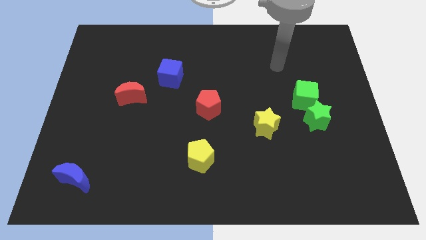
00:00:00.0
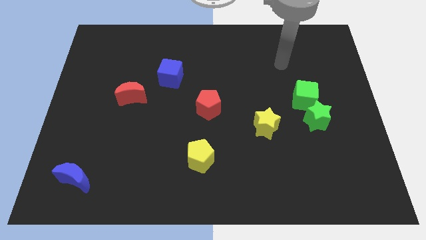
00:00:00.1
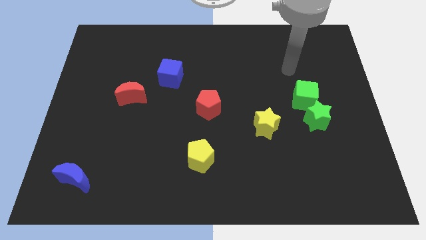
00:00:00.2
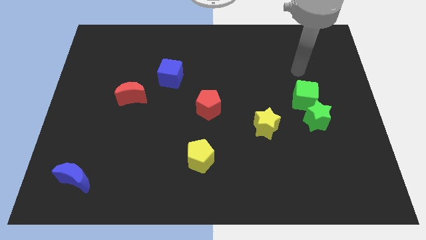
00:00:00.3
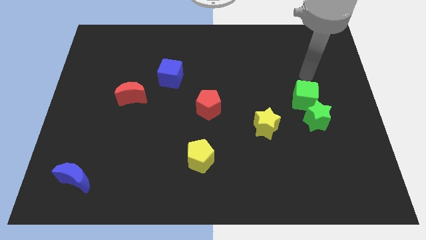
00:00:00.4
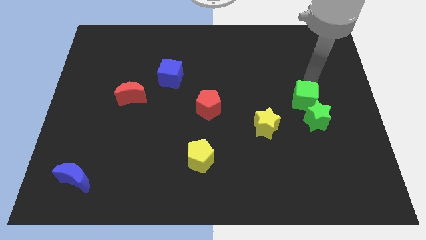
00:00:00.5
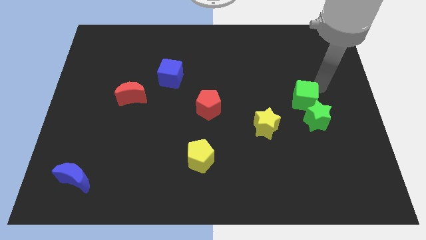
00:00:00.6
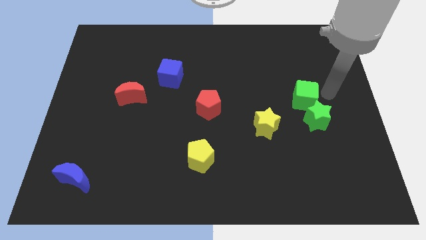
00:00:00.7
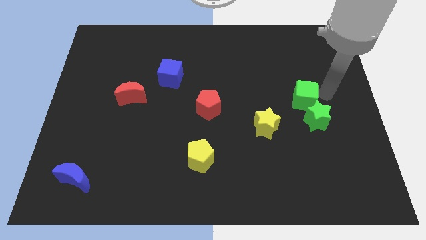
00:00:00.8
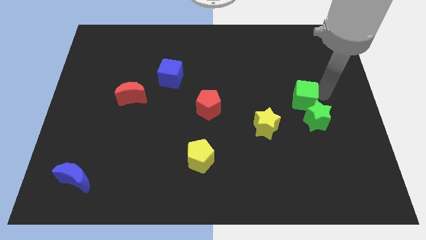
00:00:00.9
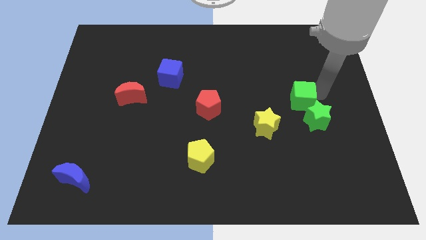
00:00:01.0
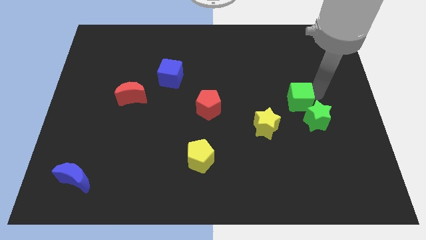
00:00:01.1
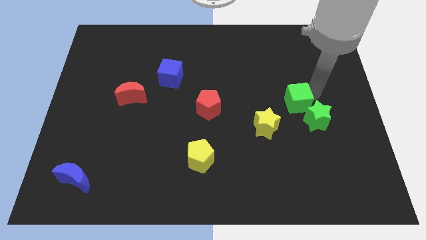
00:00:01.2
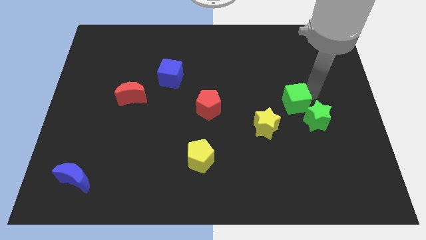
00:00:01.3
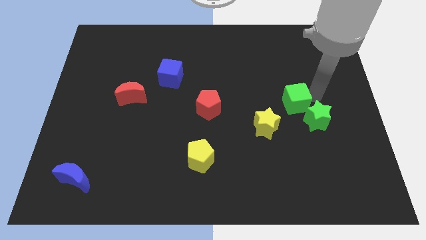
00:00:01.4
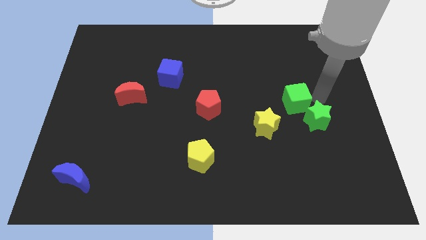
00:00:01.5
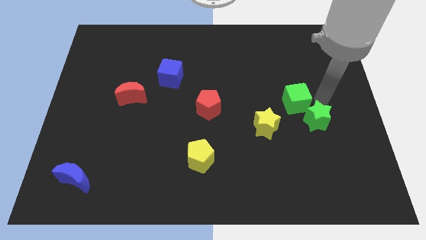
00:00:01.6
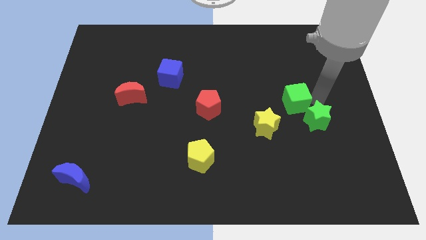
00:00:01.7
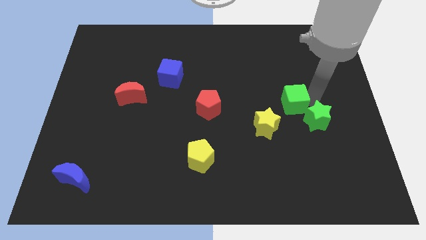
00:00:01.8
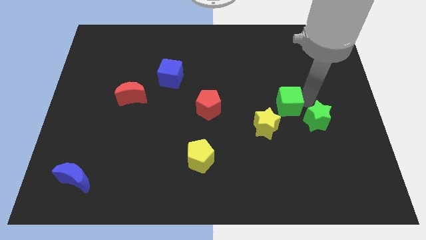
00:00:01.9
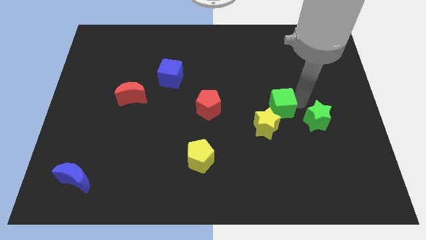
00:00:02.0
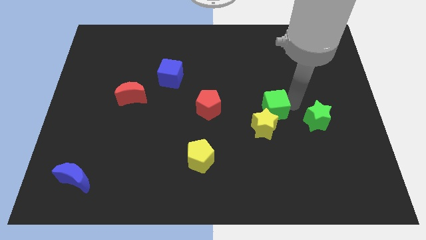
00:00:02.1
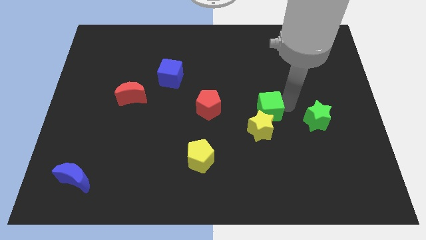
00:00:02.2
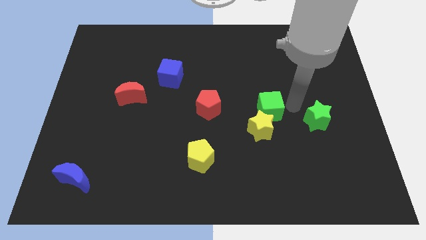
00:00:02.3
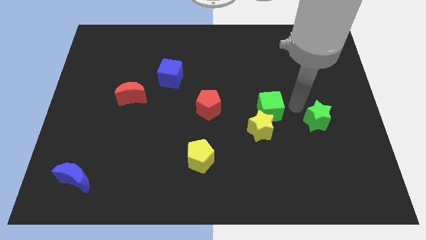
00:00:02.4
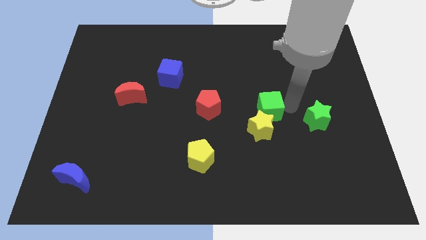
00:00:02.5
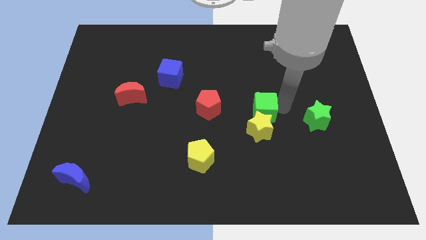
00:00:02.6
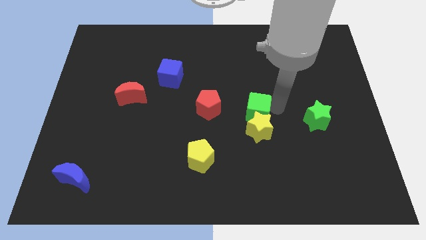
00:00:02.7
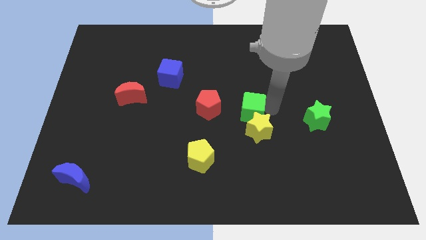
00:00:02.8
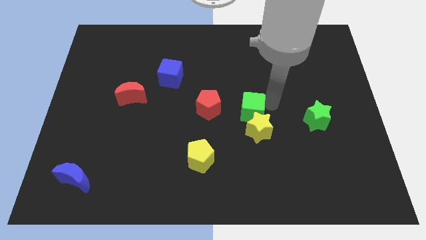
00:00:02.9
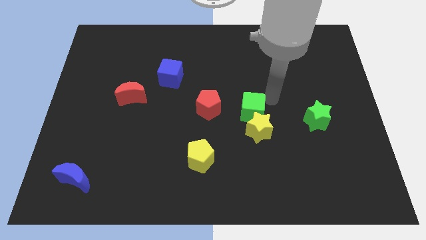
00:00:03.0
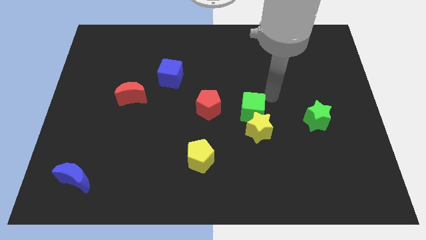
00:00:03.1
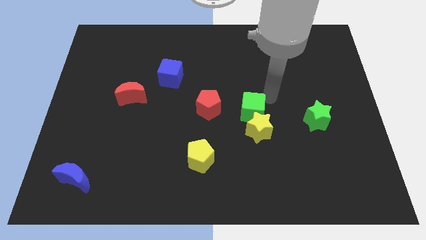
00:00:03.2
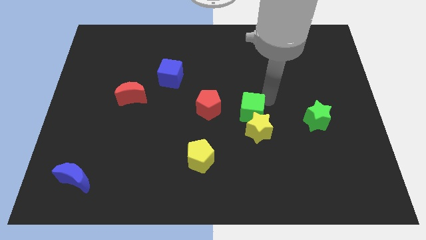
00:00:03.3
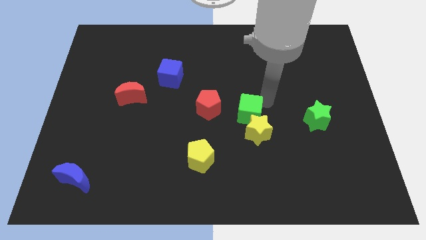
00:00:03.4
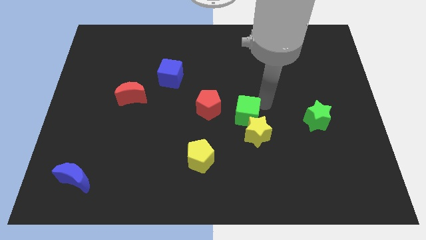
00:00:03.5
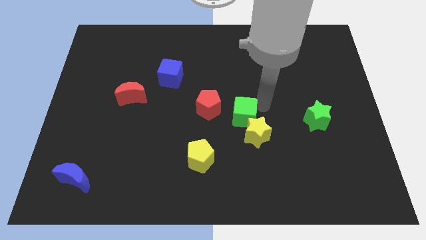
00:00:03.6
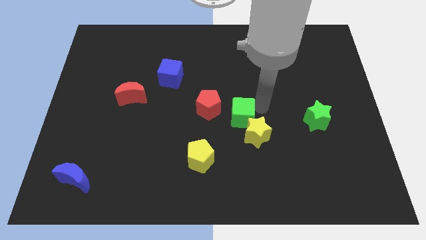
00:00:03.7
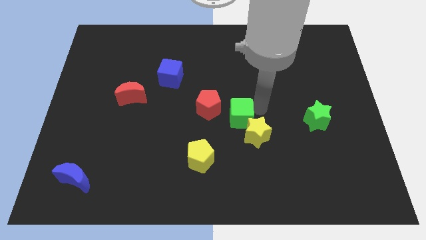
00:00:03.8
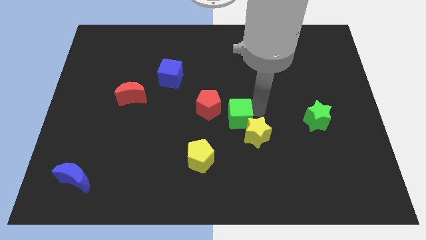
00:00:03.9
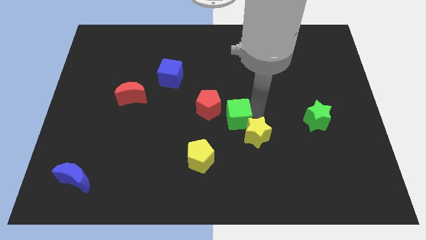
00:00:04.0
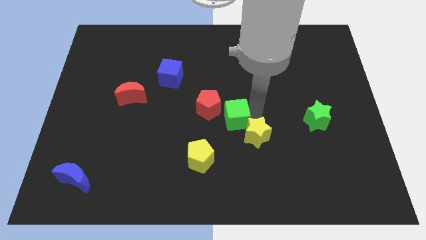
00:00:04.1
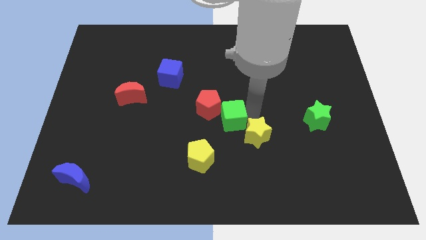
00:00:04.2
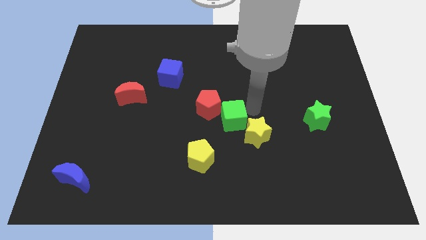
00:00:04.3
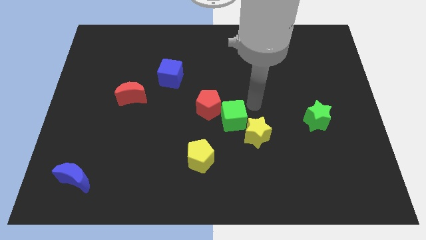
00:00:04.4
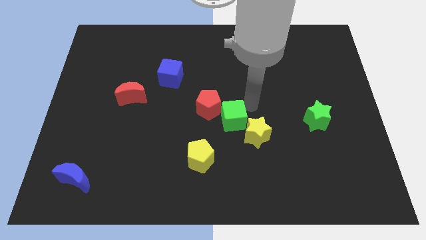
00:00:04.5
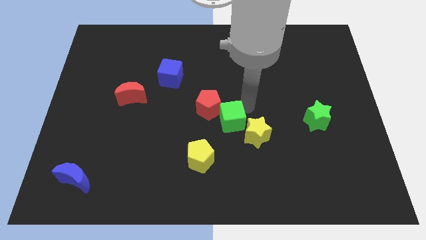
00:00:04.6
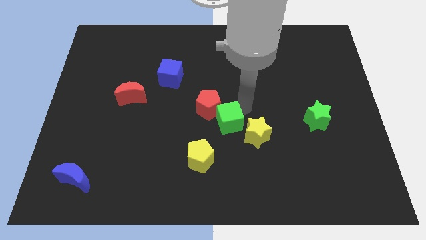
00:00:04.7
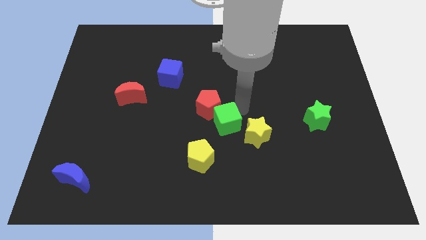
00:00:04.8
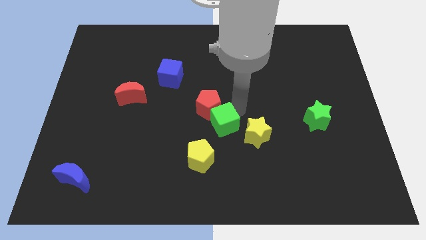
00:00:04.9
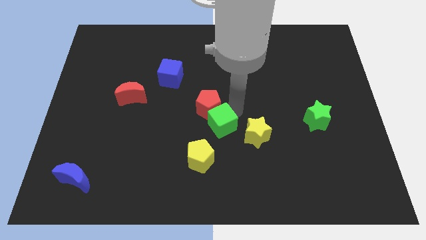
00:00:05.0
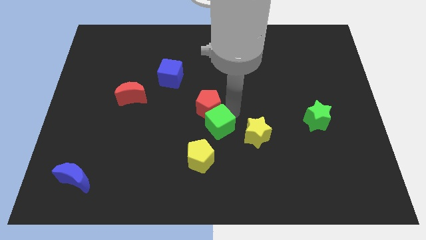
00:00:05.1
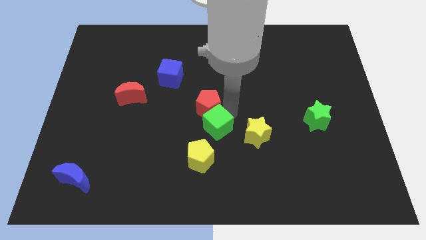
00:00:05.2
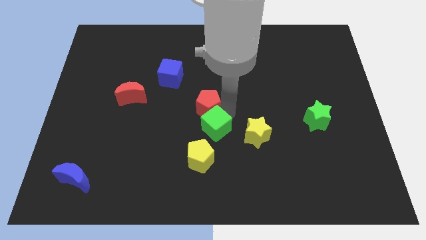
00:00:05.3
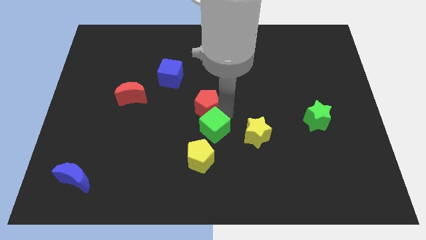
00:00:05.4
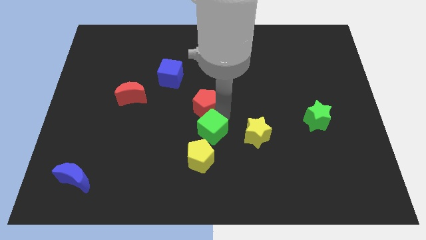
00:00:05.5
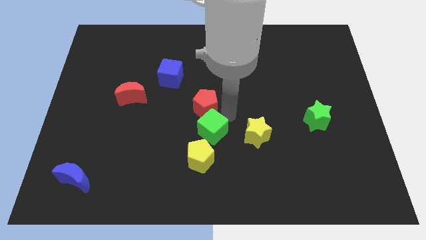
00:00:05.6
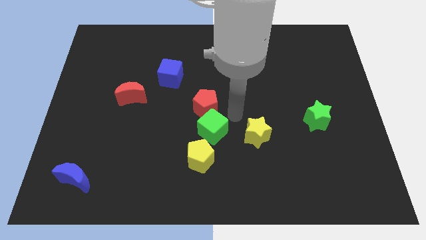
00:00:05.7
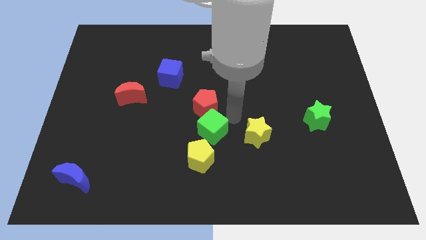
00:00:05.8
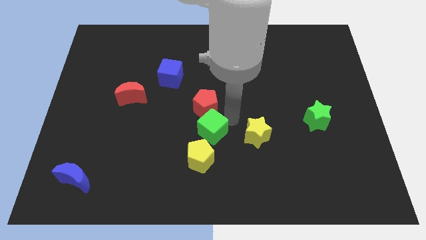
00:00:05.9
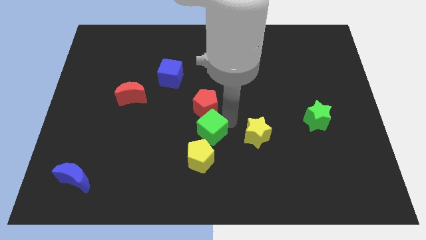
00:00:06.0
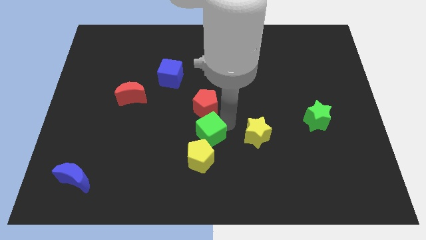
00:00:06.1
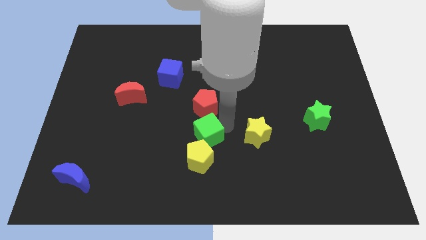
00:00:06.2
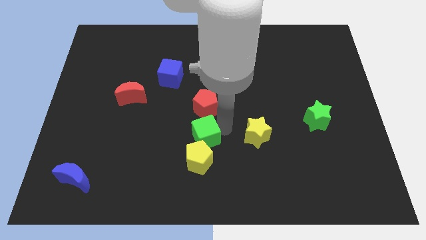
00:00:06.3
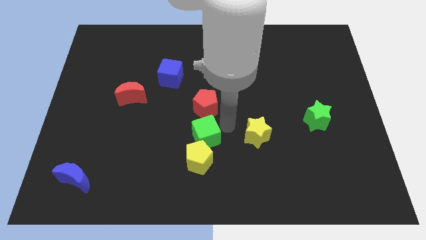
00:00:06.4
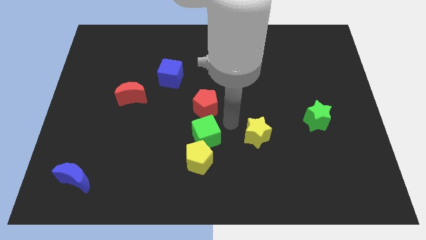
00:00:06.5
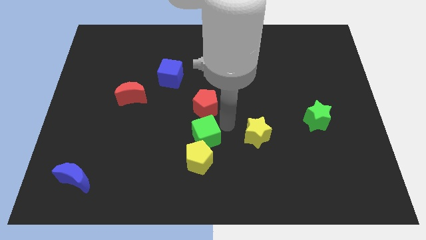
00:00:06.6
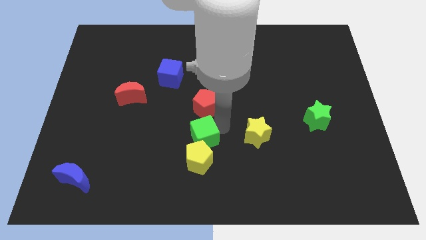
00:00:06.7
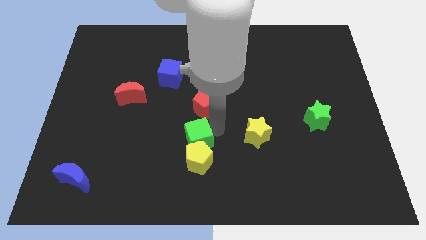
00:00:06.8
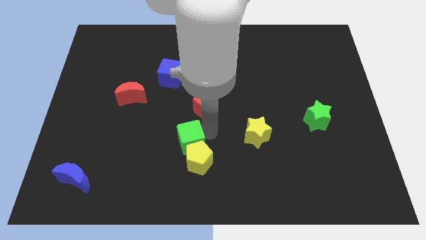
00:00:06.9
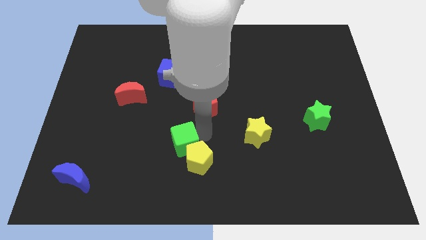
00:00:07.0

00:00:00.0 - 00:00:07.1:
put the green cube just left of the yellow pentagon
